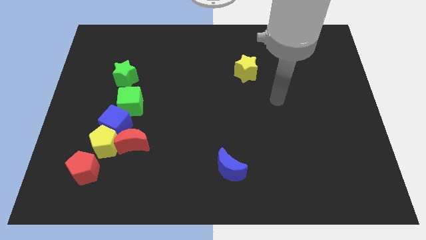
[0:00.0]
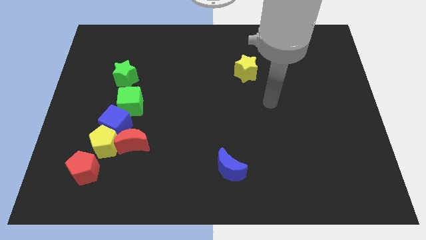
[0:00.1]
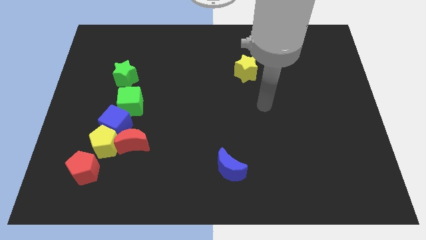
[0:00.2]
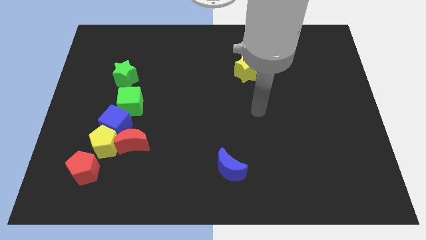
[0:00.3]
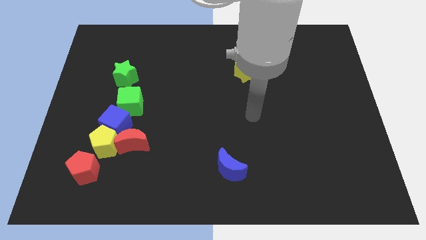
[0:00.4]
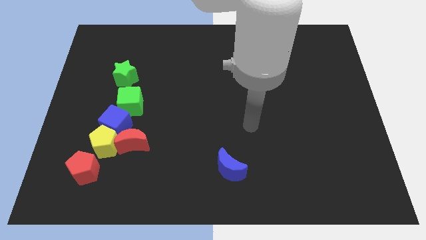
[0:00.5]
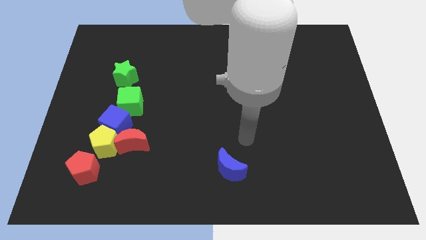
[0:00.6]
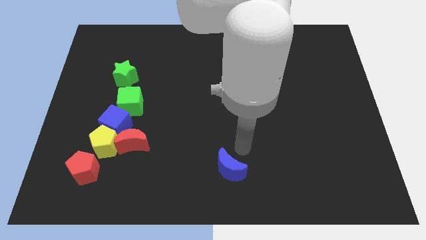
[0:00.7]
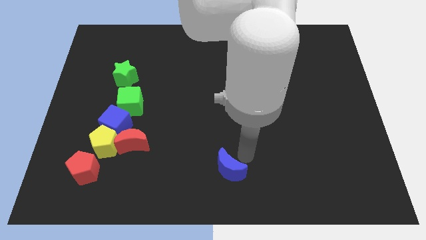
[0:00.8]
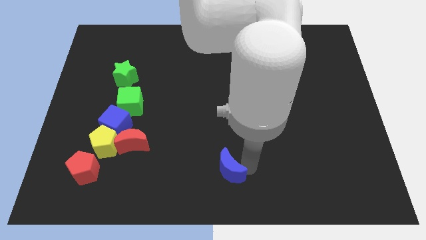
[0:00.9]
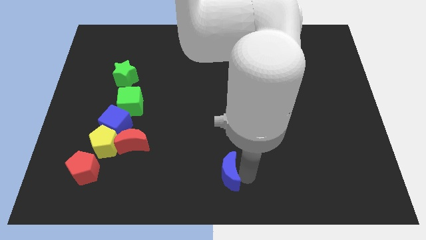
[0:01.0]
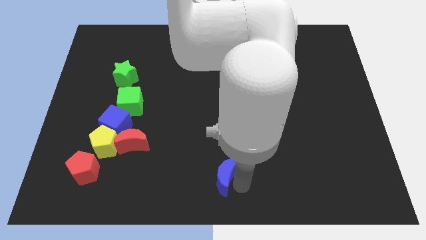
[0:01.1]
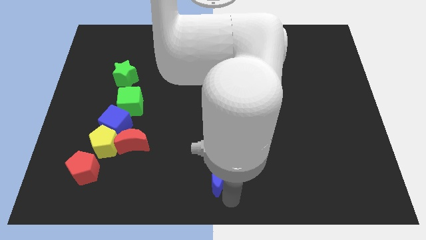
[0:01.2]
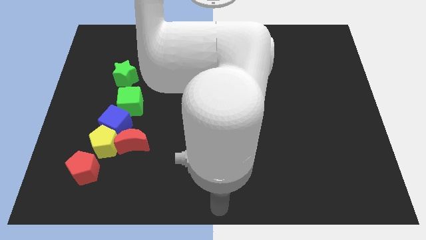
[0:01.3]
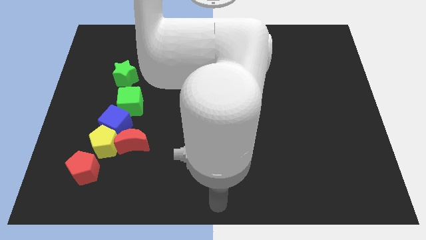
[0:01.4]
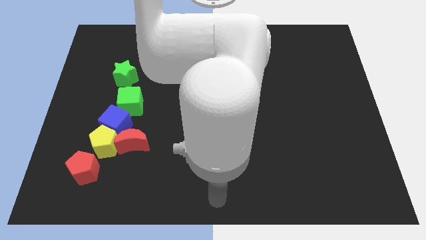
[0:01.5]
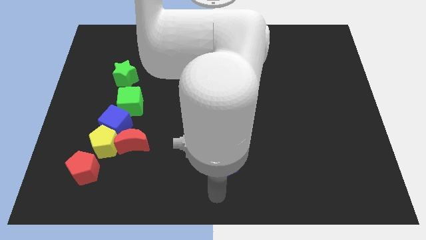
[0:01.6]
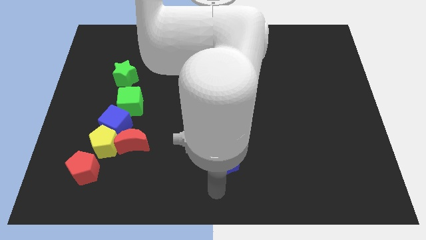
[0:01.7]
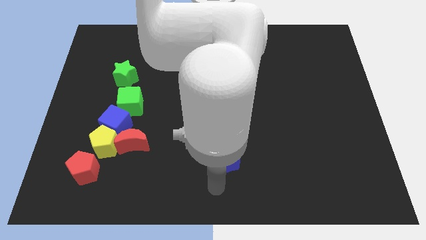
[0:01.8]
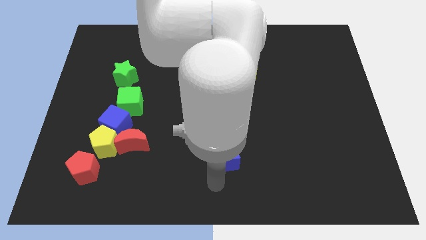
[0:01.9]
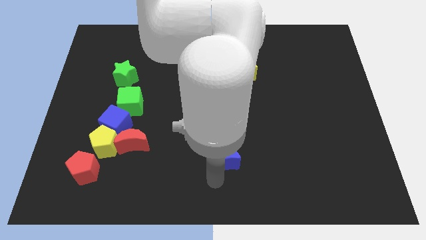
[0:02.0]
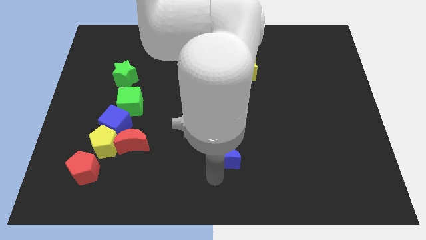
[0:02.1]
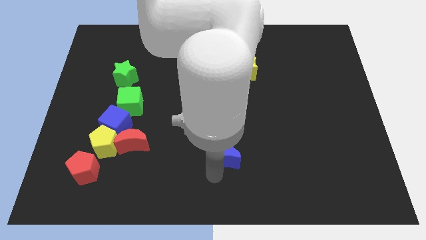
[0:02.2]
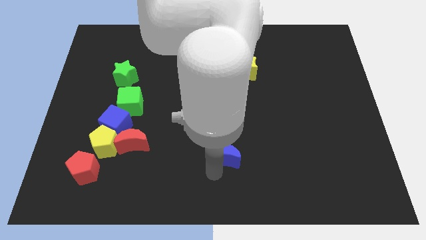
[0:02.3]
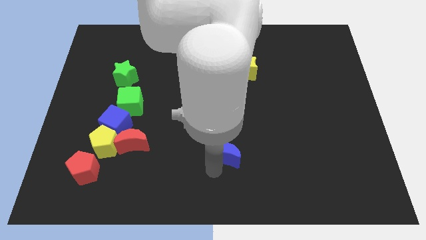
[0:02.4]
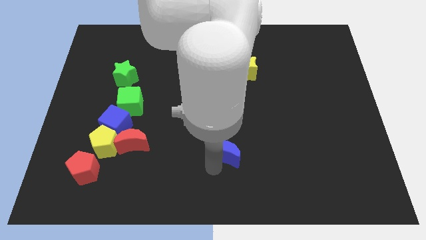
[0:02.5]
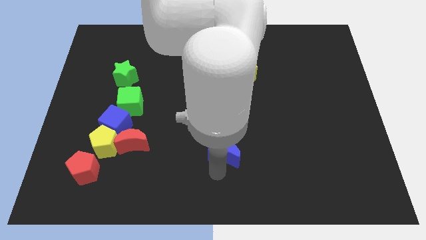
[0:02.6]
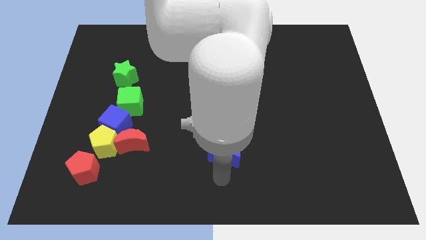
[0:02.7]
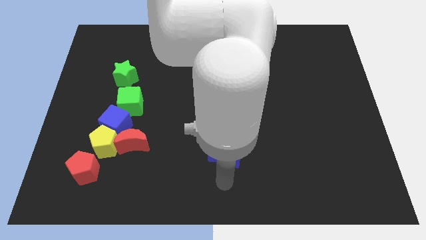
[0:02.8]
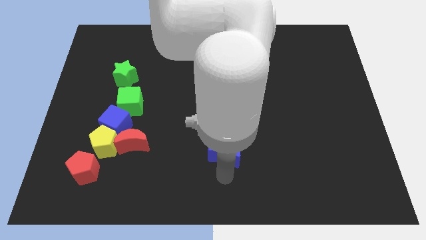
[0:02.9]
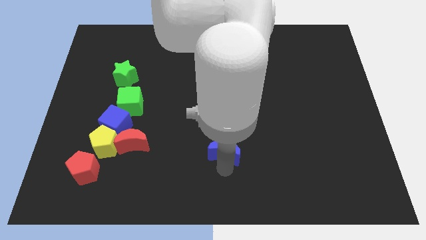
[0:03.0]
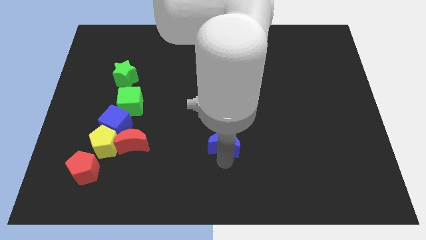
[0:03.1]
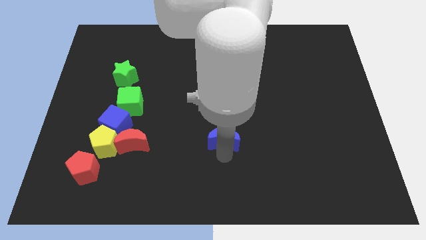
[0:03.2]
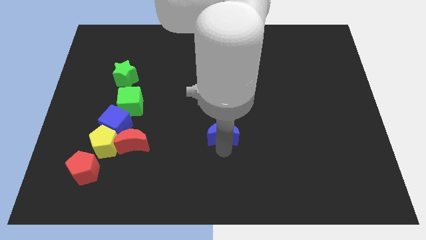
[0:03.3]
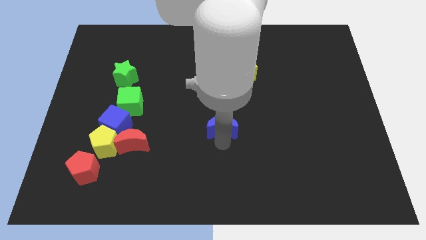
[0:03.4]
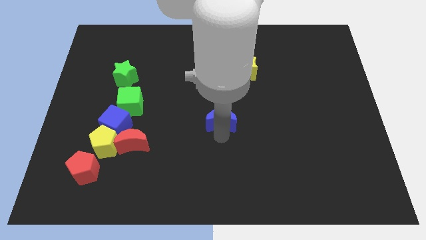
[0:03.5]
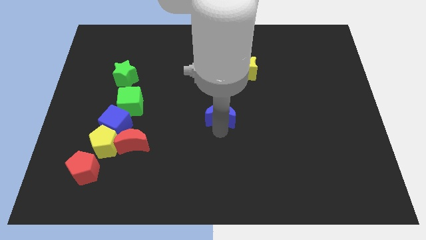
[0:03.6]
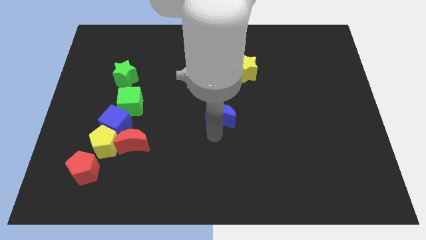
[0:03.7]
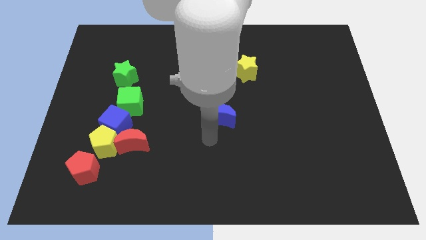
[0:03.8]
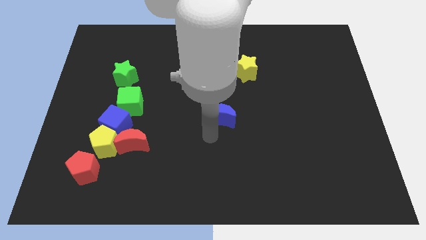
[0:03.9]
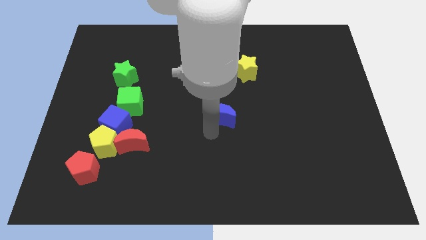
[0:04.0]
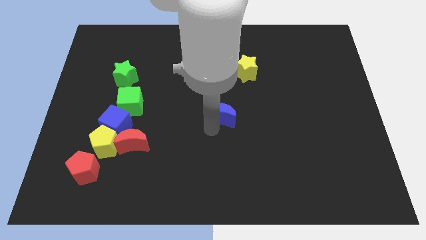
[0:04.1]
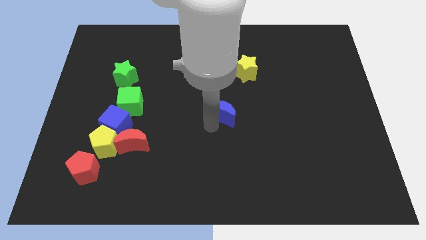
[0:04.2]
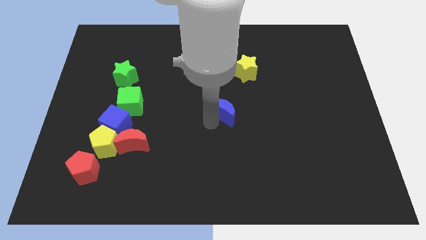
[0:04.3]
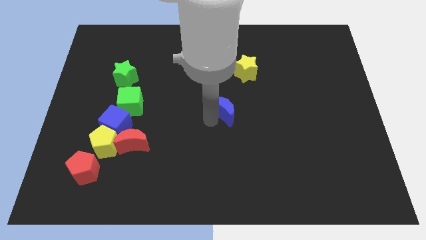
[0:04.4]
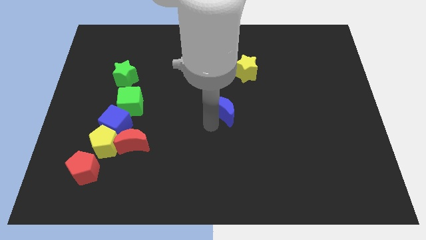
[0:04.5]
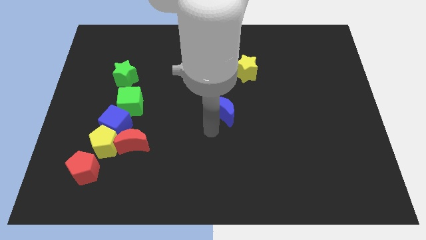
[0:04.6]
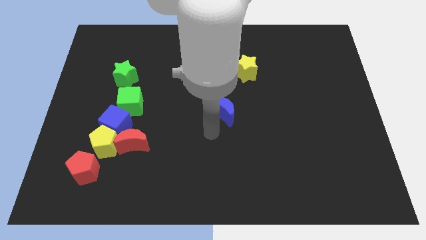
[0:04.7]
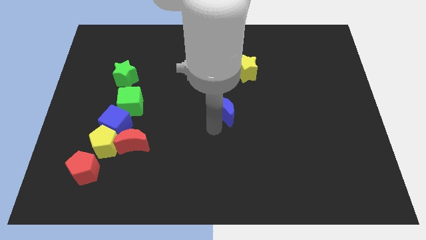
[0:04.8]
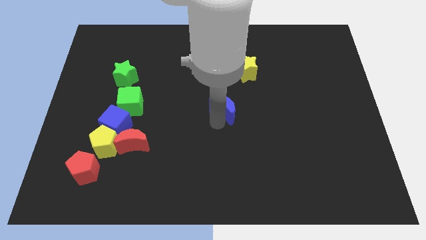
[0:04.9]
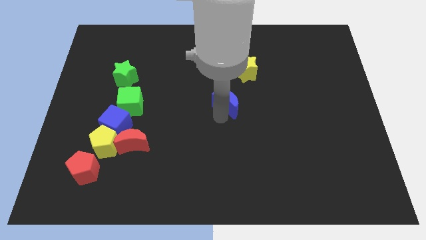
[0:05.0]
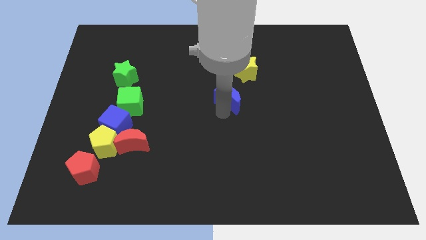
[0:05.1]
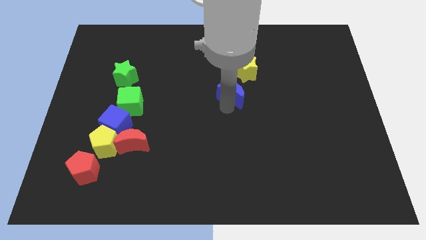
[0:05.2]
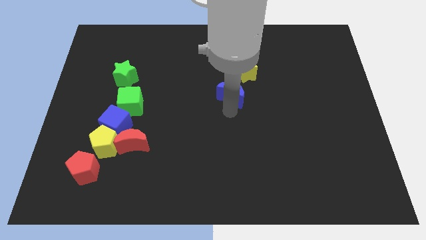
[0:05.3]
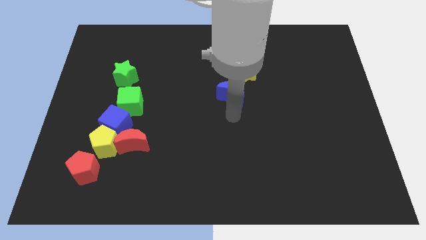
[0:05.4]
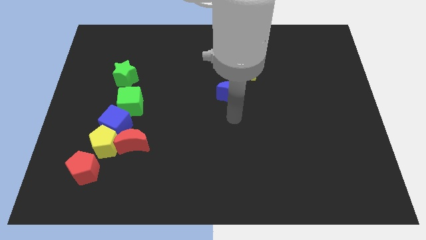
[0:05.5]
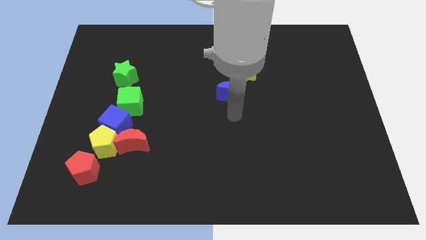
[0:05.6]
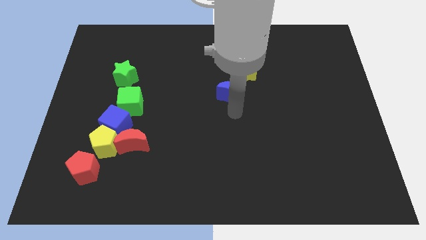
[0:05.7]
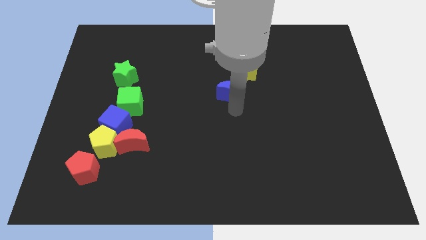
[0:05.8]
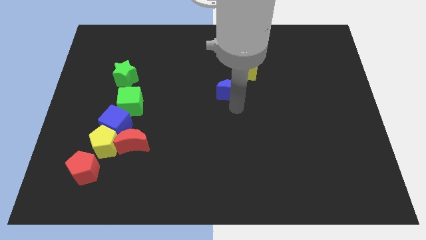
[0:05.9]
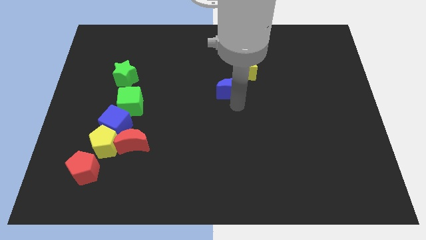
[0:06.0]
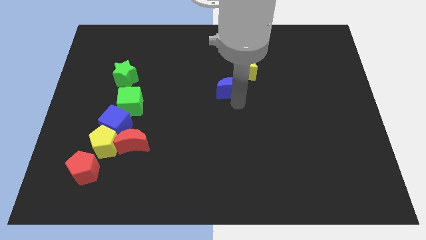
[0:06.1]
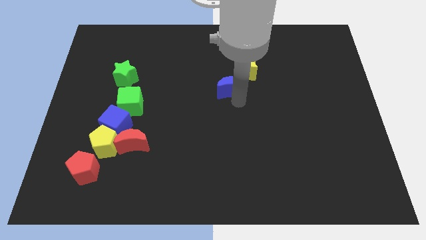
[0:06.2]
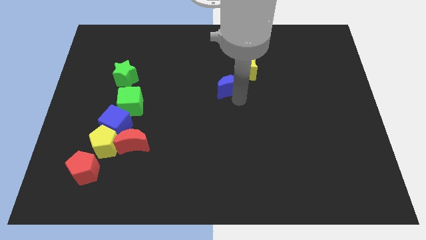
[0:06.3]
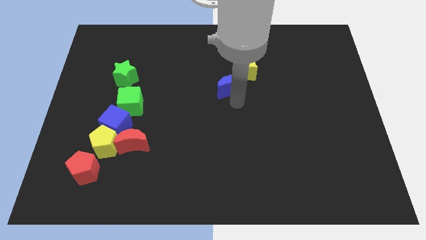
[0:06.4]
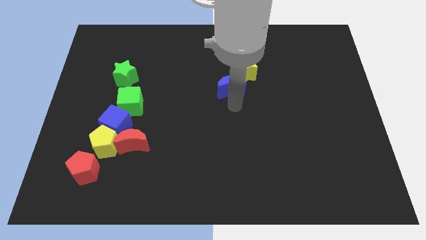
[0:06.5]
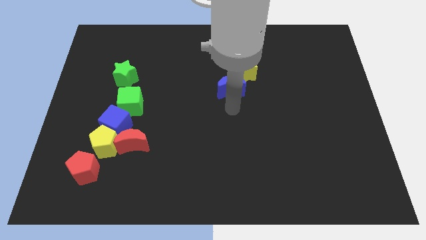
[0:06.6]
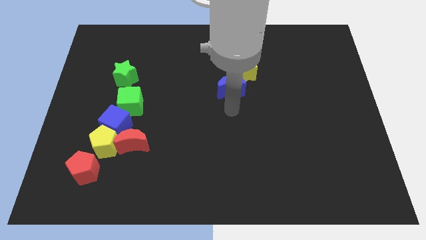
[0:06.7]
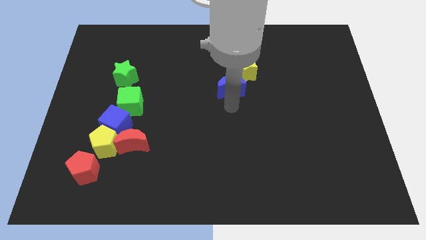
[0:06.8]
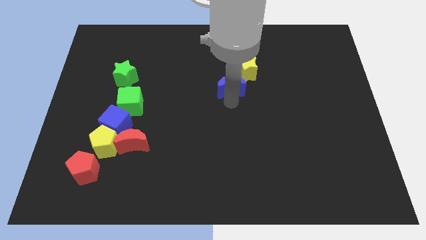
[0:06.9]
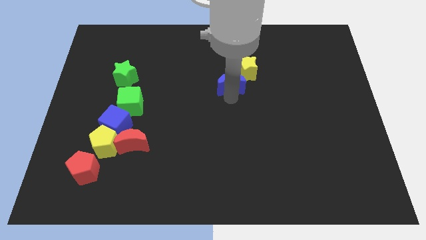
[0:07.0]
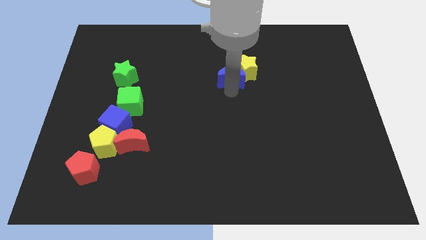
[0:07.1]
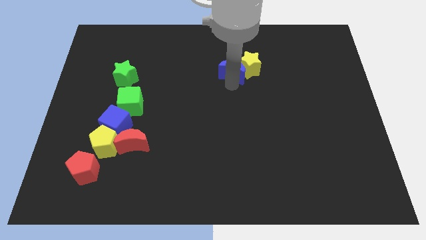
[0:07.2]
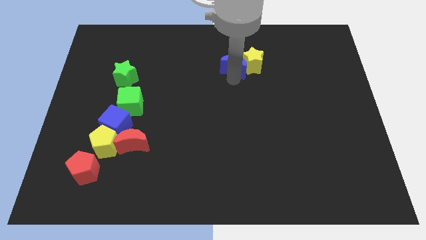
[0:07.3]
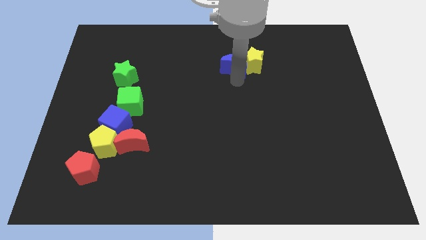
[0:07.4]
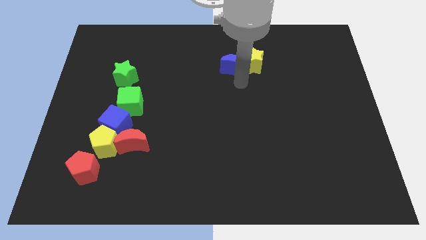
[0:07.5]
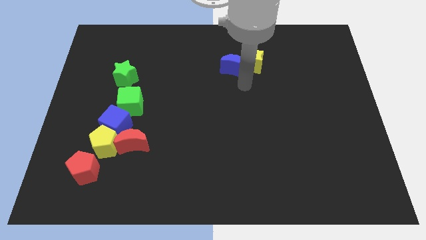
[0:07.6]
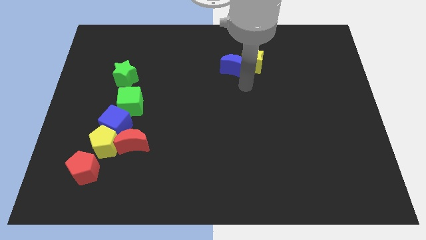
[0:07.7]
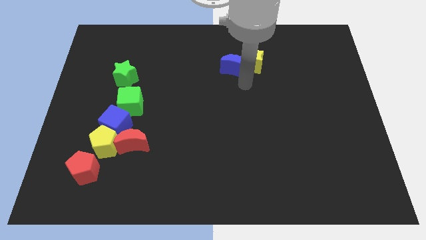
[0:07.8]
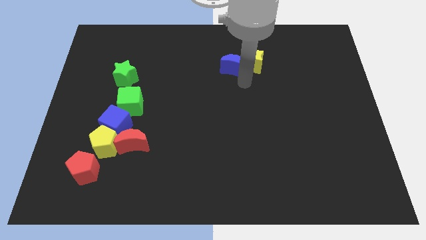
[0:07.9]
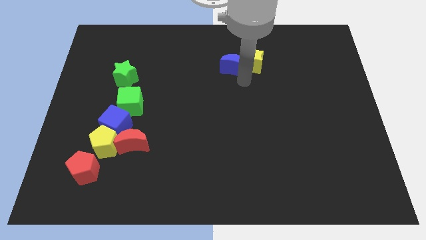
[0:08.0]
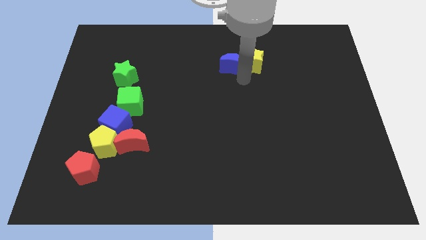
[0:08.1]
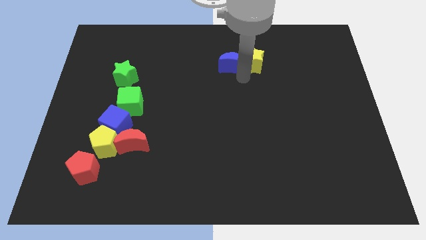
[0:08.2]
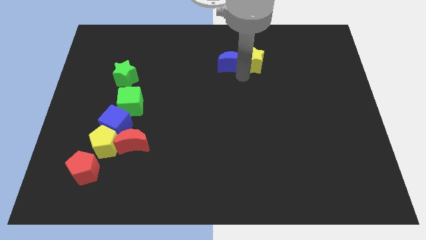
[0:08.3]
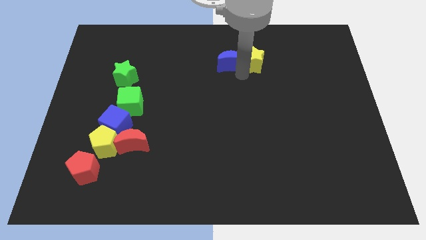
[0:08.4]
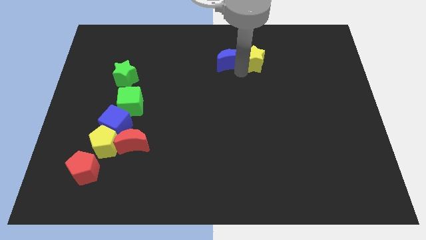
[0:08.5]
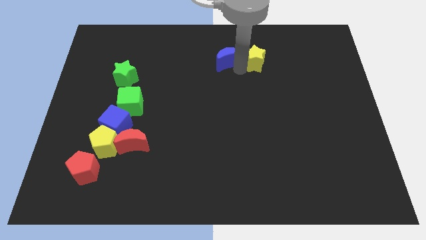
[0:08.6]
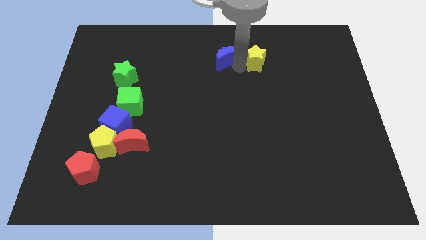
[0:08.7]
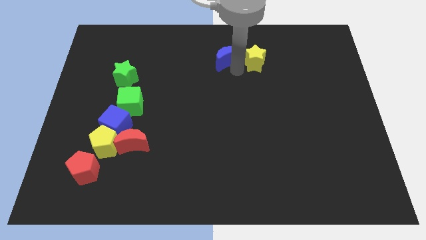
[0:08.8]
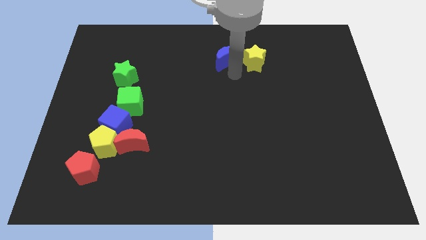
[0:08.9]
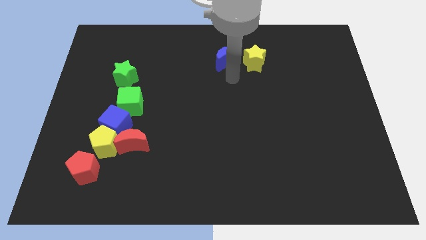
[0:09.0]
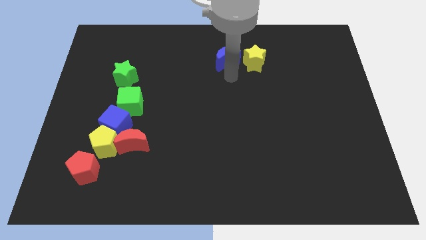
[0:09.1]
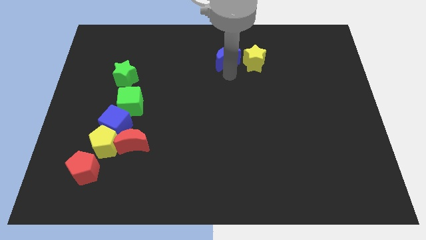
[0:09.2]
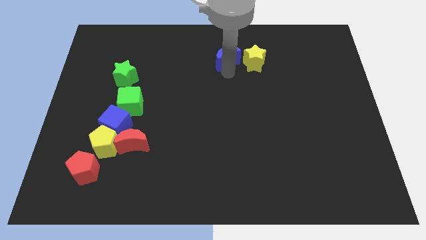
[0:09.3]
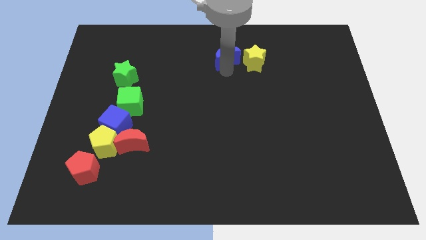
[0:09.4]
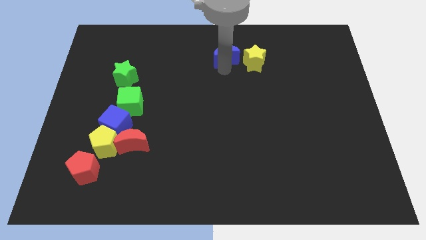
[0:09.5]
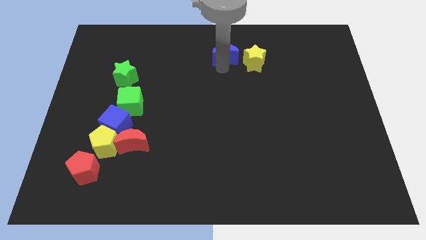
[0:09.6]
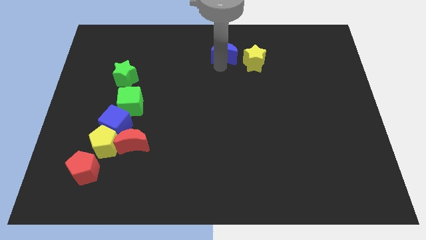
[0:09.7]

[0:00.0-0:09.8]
move the blue moon to the towards your base
